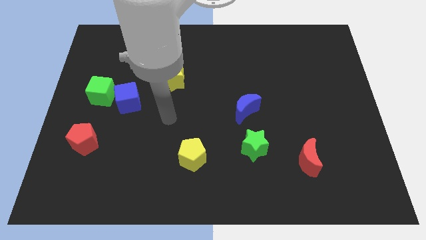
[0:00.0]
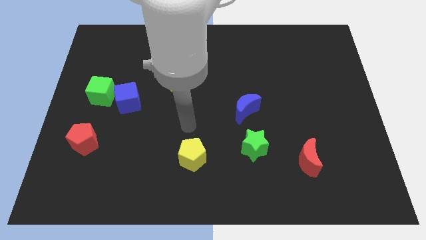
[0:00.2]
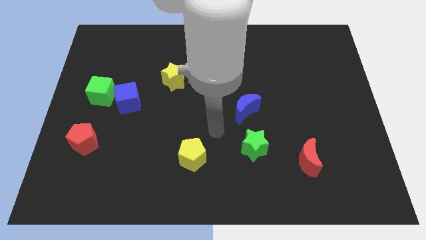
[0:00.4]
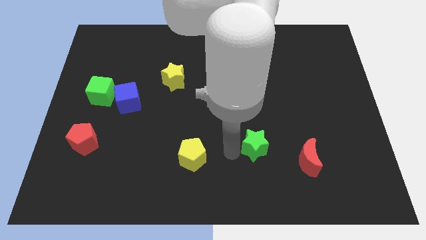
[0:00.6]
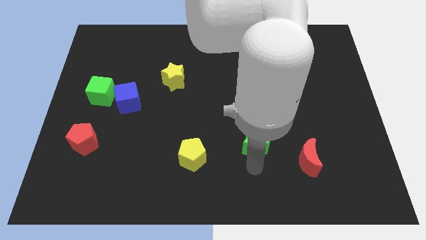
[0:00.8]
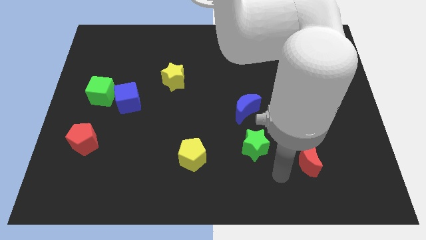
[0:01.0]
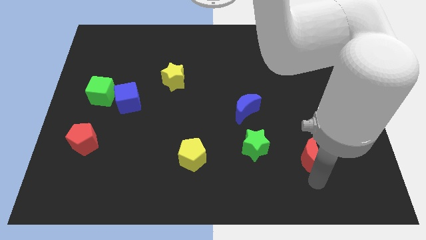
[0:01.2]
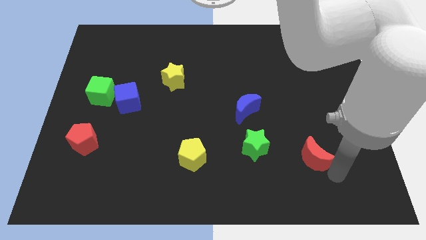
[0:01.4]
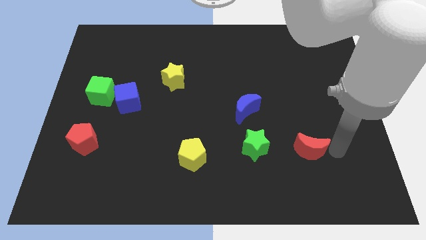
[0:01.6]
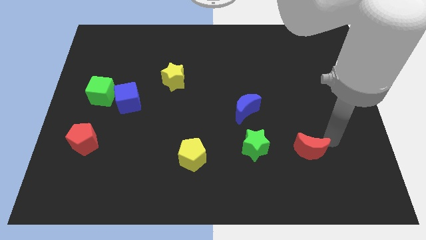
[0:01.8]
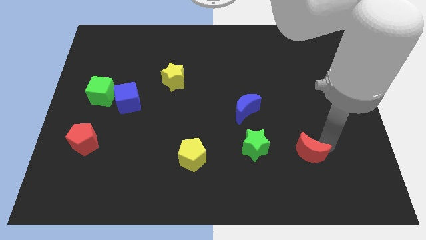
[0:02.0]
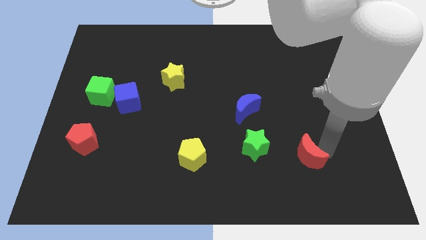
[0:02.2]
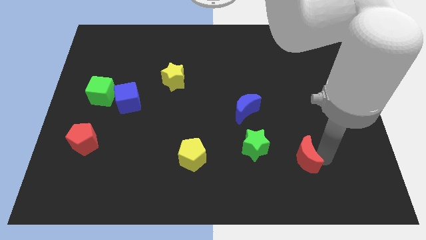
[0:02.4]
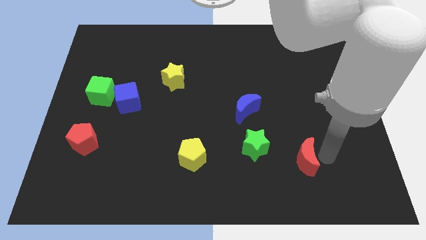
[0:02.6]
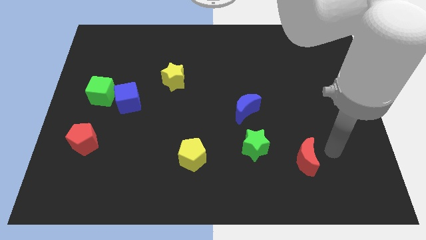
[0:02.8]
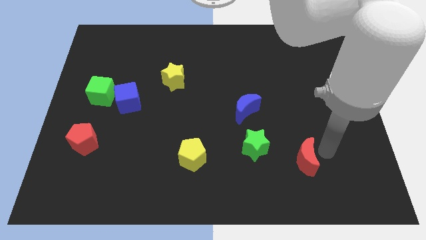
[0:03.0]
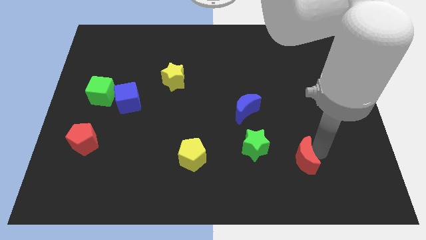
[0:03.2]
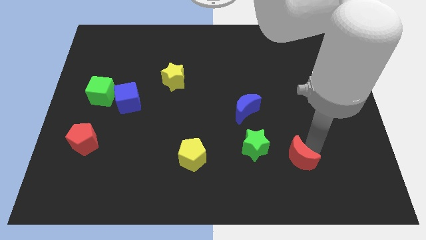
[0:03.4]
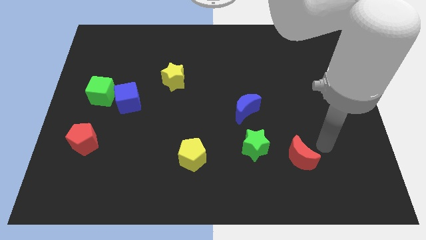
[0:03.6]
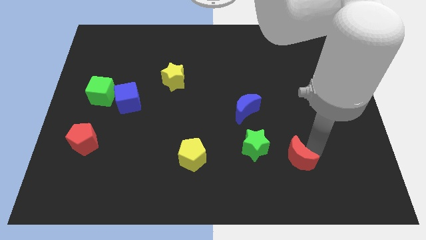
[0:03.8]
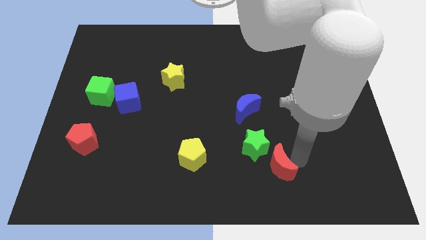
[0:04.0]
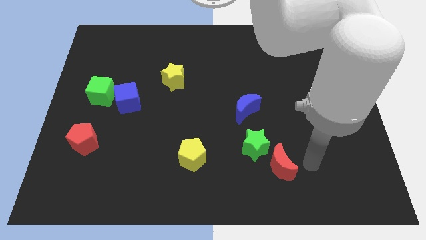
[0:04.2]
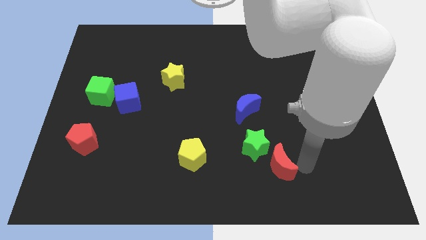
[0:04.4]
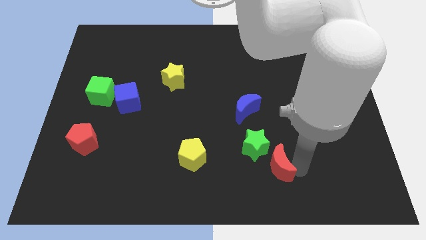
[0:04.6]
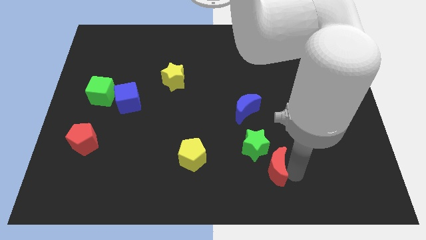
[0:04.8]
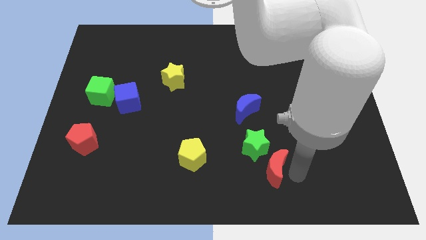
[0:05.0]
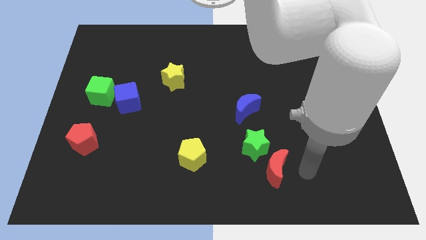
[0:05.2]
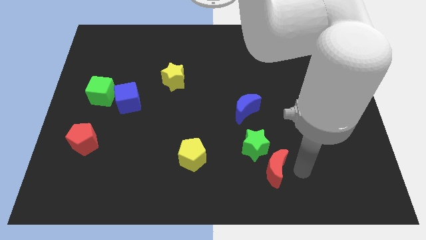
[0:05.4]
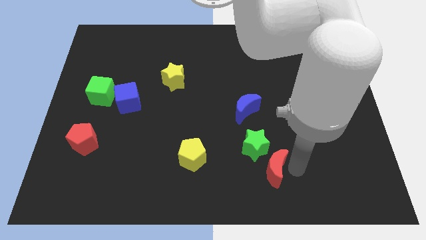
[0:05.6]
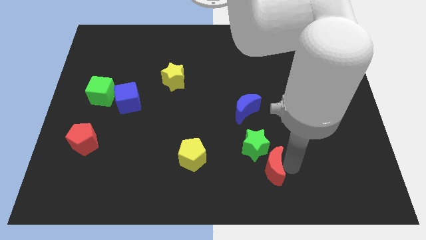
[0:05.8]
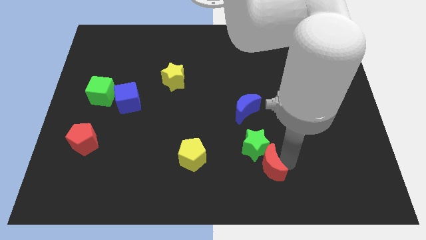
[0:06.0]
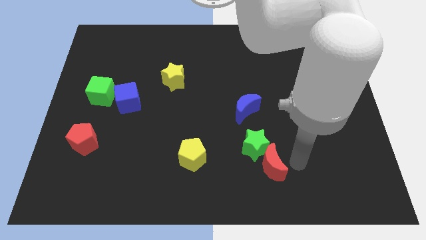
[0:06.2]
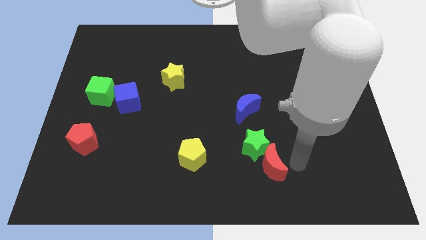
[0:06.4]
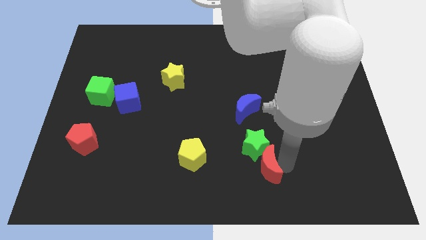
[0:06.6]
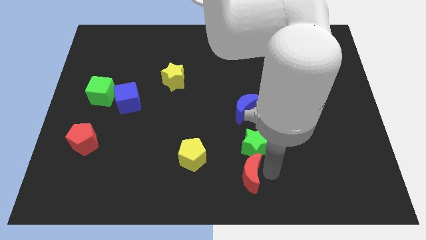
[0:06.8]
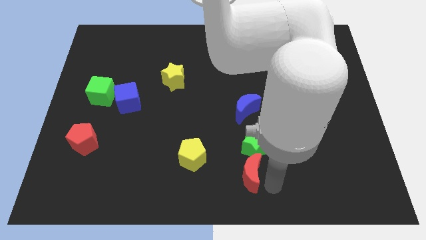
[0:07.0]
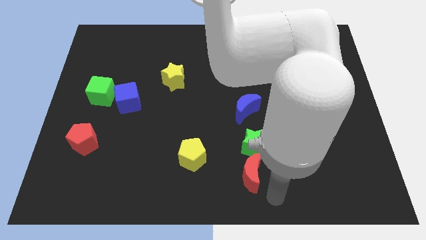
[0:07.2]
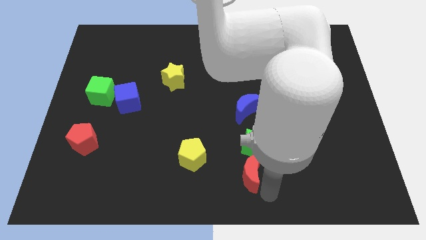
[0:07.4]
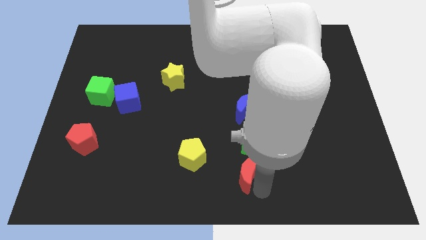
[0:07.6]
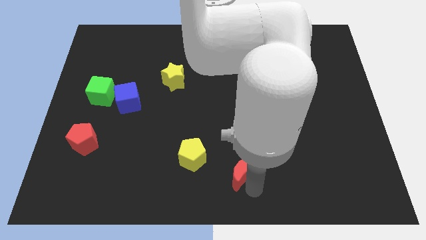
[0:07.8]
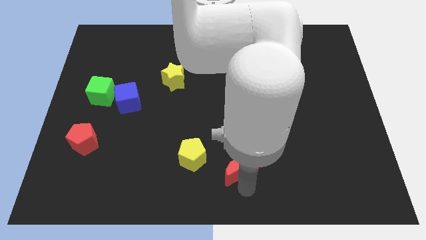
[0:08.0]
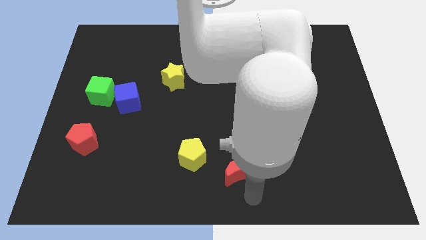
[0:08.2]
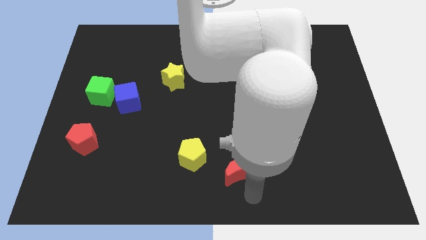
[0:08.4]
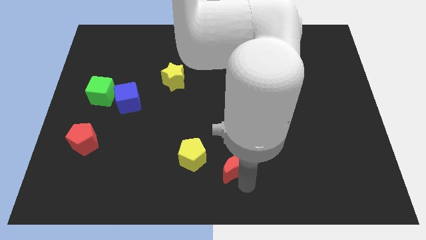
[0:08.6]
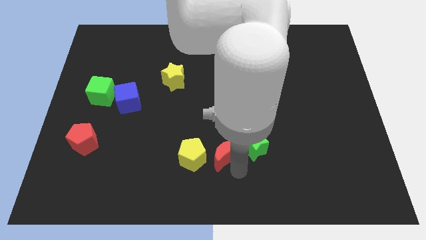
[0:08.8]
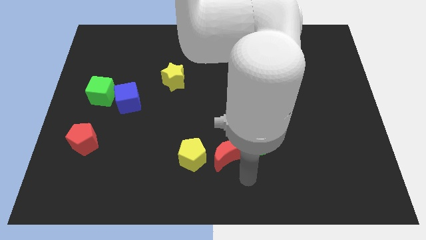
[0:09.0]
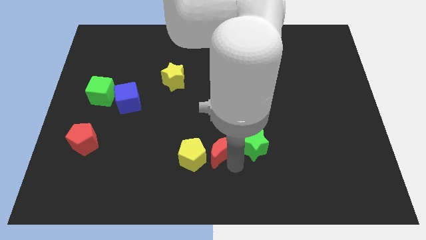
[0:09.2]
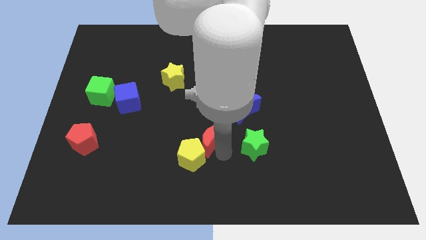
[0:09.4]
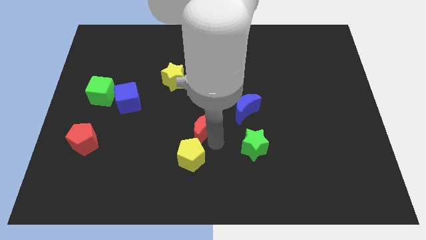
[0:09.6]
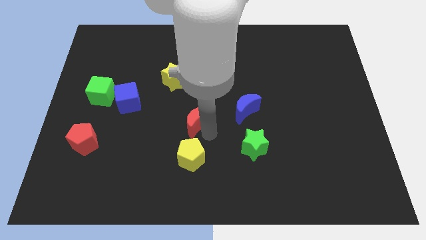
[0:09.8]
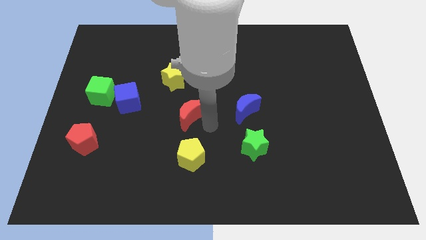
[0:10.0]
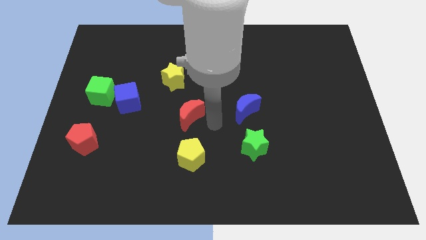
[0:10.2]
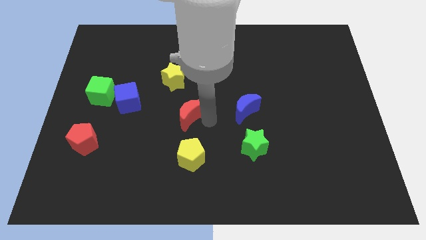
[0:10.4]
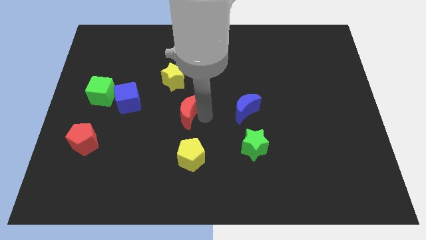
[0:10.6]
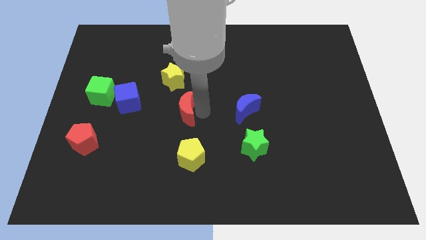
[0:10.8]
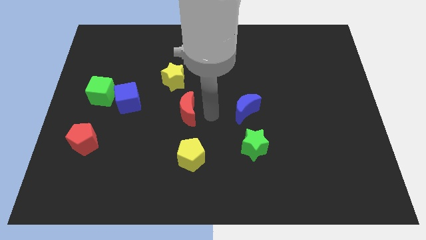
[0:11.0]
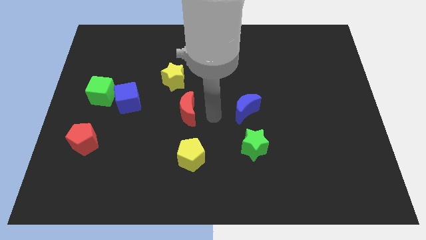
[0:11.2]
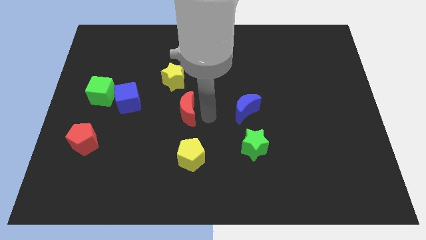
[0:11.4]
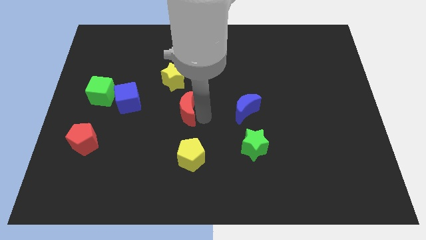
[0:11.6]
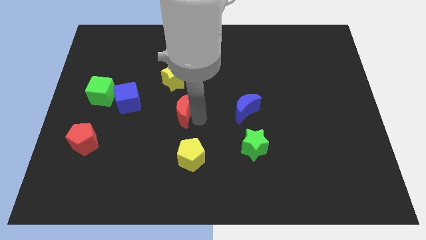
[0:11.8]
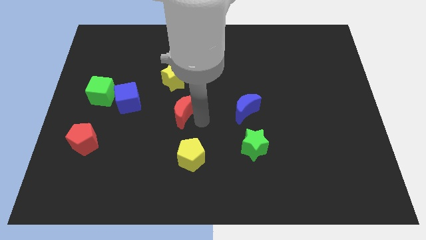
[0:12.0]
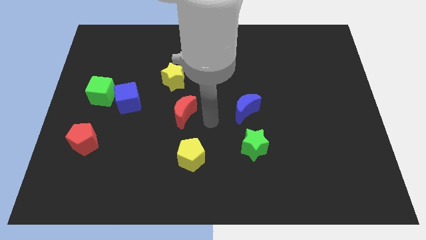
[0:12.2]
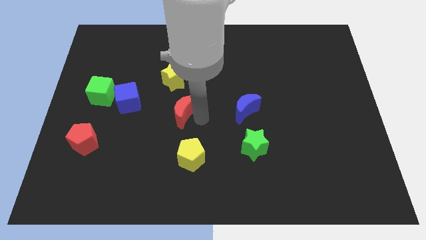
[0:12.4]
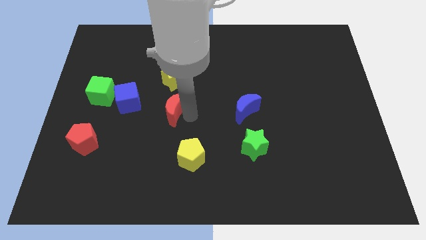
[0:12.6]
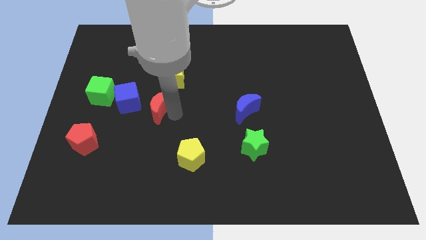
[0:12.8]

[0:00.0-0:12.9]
slide the red moon to the bottom left side of the yellow star
